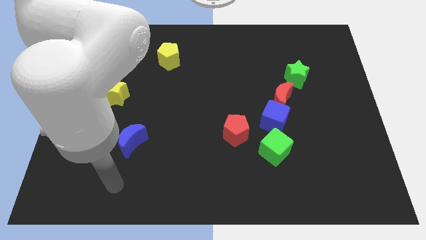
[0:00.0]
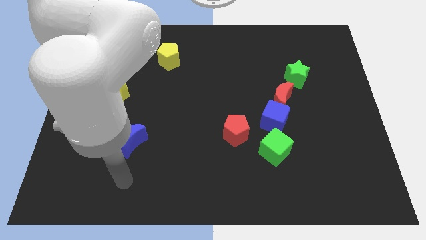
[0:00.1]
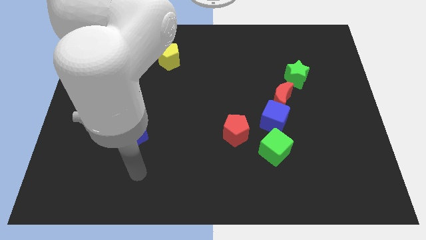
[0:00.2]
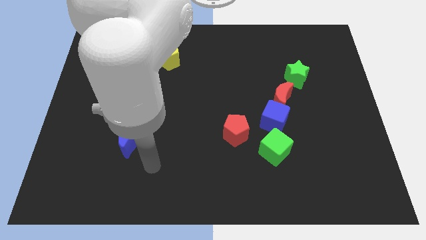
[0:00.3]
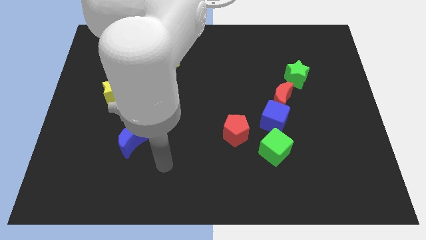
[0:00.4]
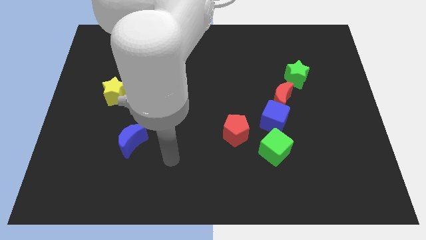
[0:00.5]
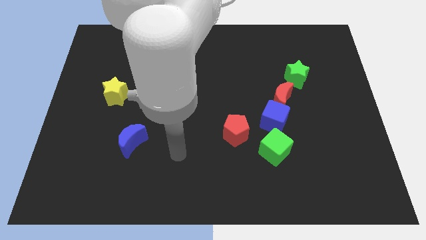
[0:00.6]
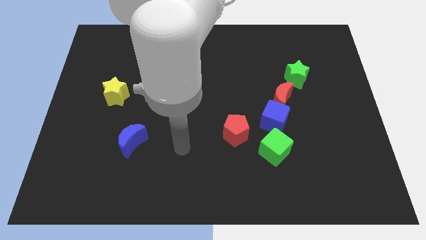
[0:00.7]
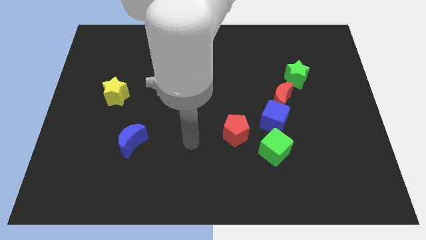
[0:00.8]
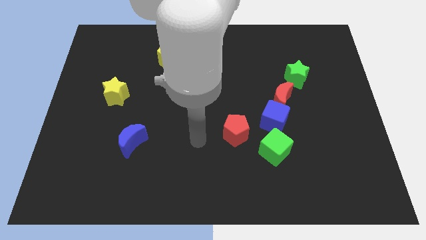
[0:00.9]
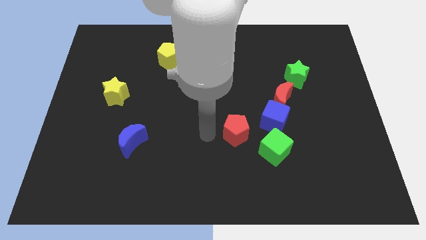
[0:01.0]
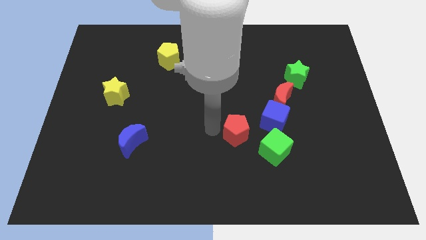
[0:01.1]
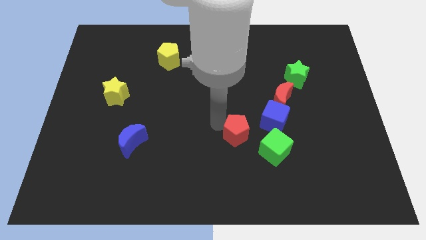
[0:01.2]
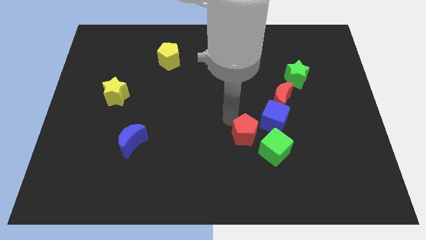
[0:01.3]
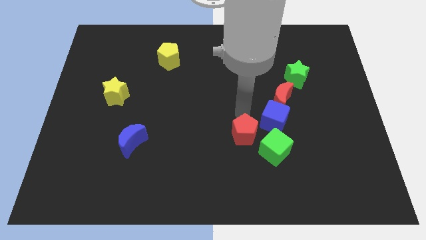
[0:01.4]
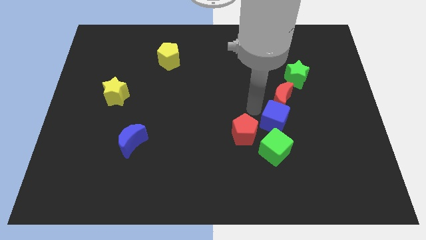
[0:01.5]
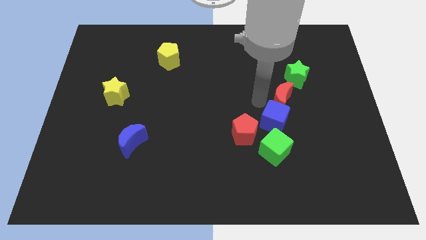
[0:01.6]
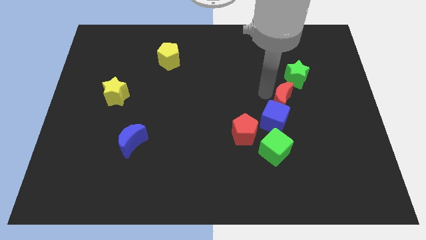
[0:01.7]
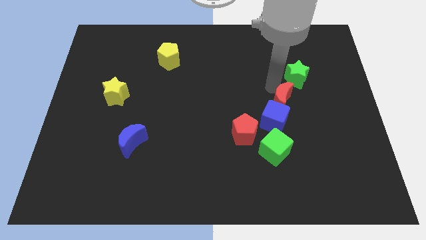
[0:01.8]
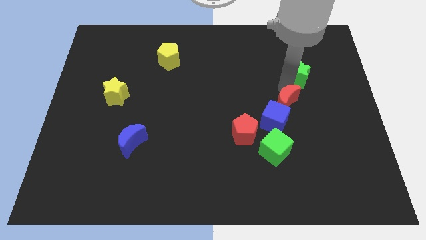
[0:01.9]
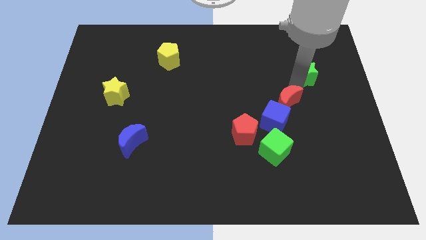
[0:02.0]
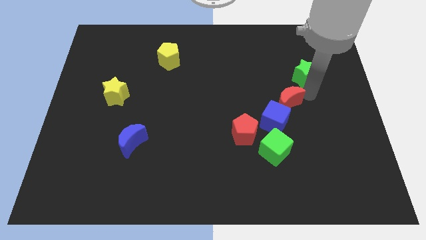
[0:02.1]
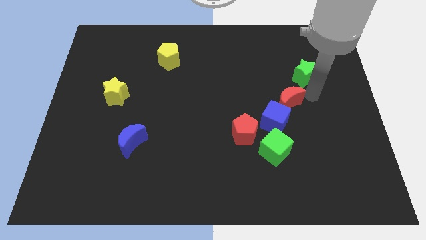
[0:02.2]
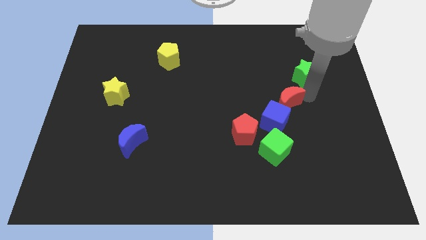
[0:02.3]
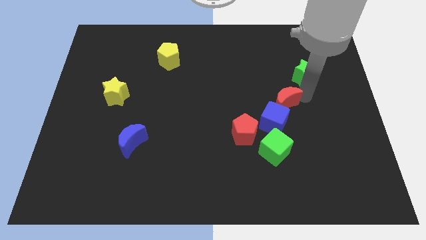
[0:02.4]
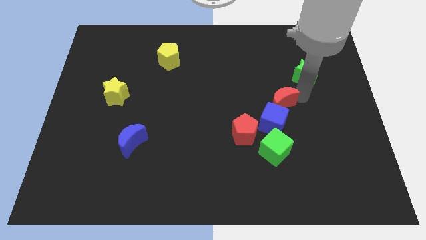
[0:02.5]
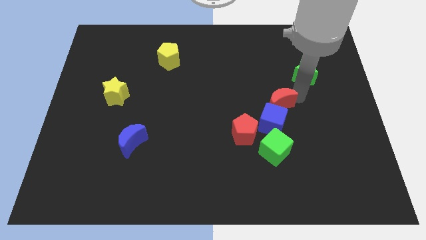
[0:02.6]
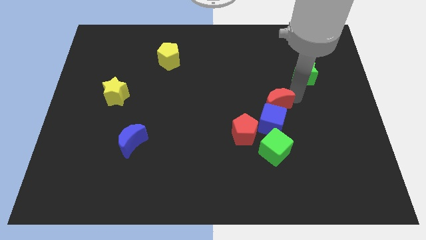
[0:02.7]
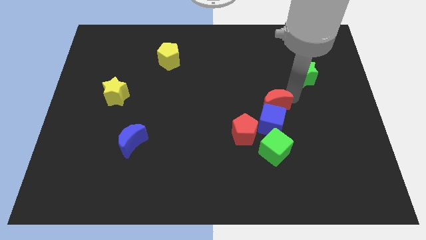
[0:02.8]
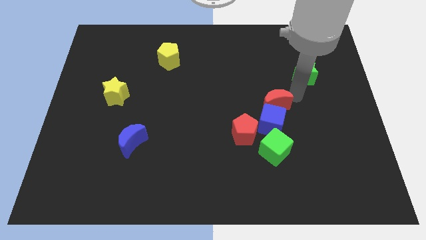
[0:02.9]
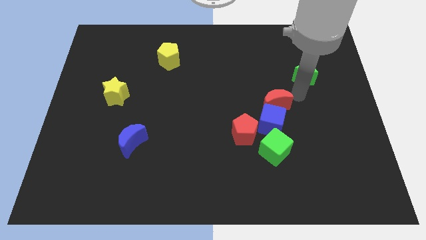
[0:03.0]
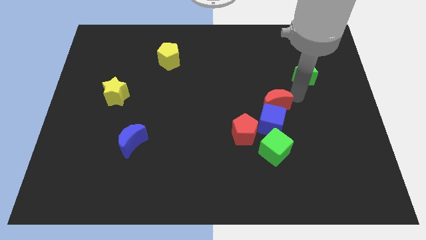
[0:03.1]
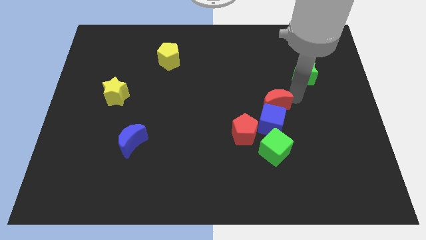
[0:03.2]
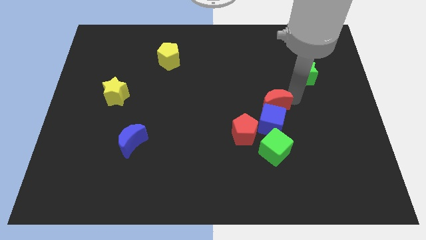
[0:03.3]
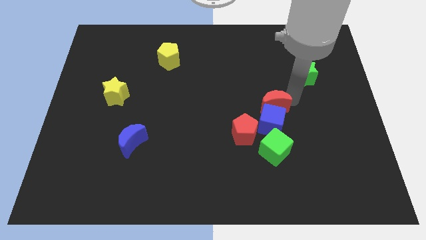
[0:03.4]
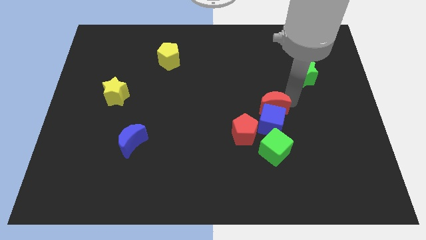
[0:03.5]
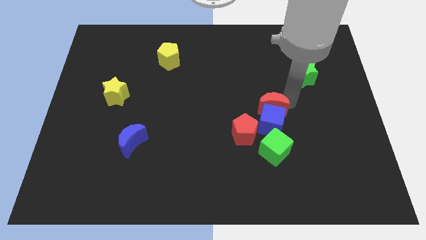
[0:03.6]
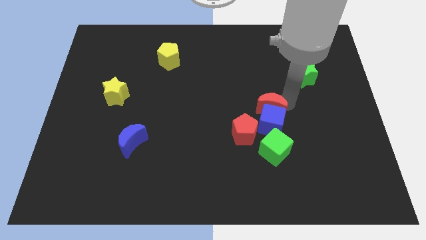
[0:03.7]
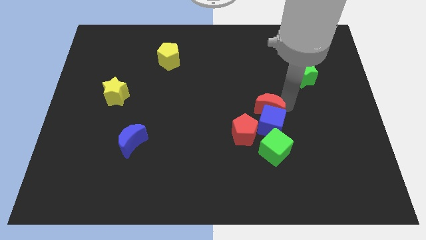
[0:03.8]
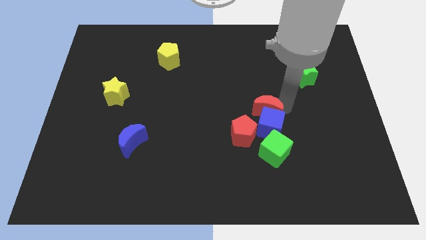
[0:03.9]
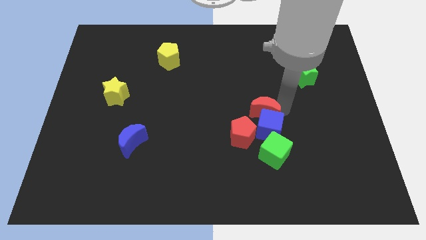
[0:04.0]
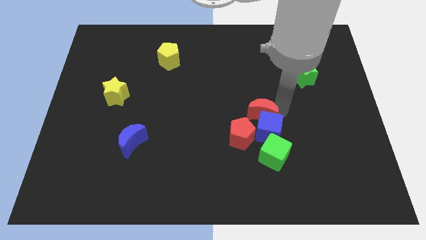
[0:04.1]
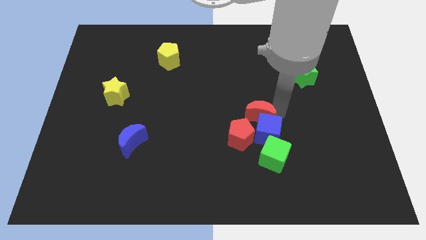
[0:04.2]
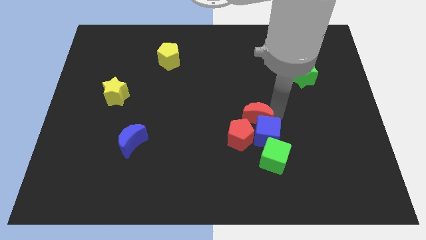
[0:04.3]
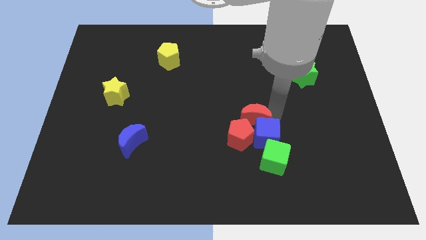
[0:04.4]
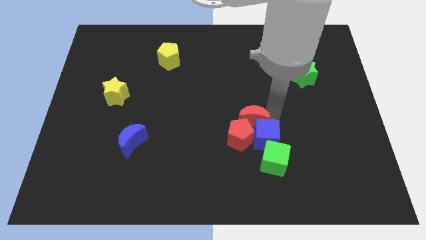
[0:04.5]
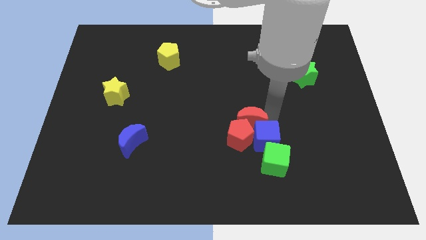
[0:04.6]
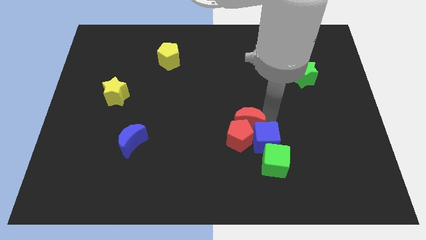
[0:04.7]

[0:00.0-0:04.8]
separate the red moon from the blue cube and green star

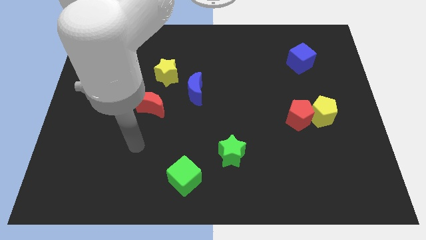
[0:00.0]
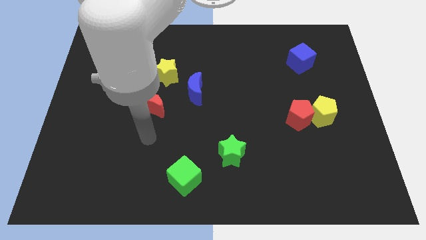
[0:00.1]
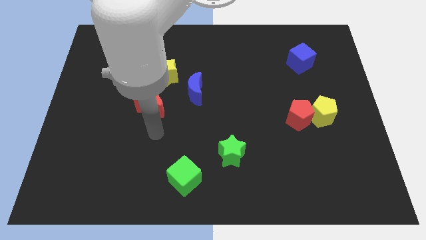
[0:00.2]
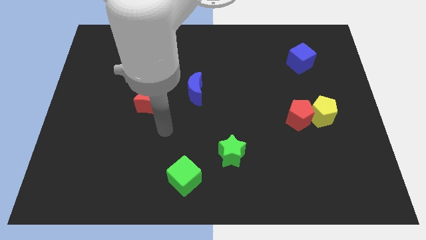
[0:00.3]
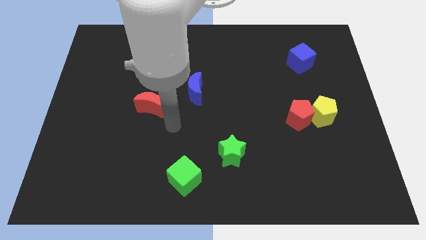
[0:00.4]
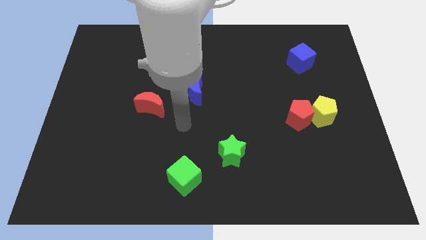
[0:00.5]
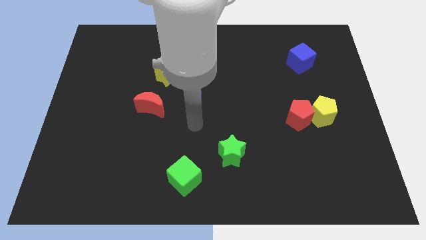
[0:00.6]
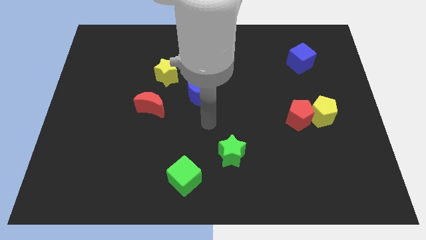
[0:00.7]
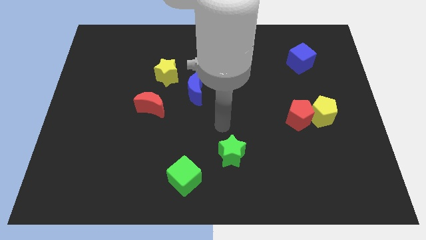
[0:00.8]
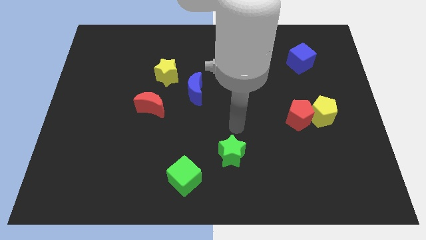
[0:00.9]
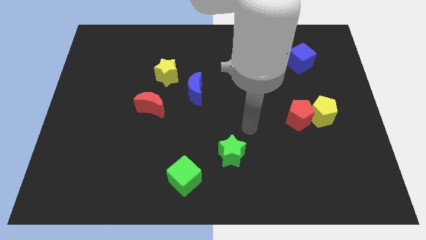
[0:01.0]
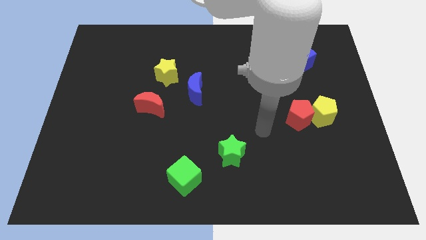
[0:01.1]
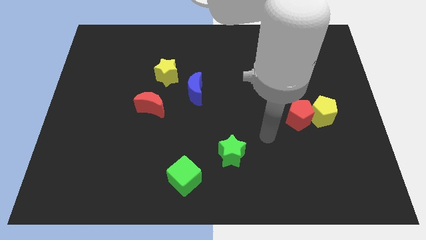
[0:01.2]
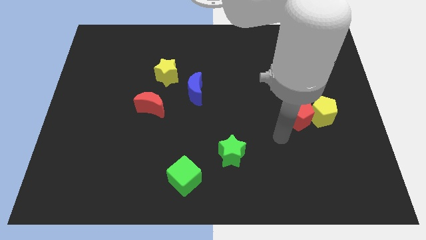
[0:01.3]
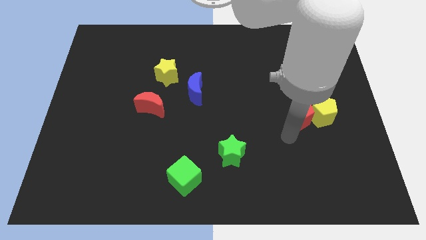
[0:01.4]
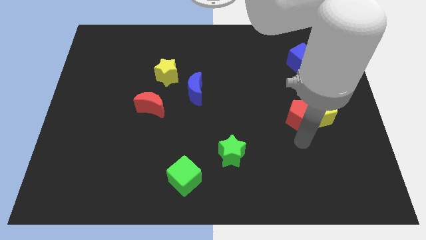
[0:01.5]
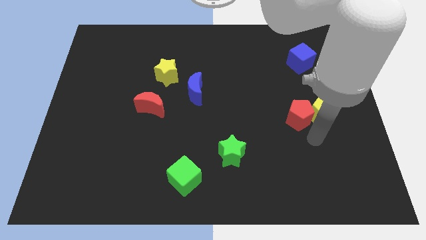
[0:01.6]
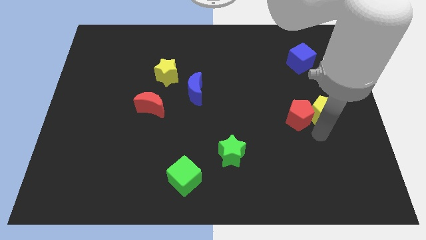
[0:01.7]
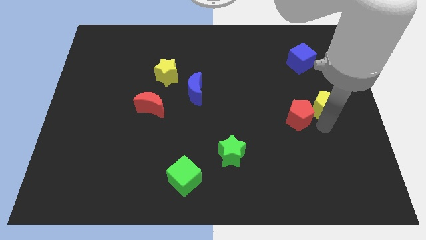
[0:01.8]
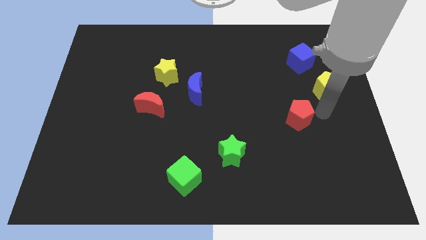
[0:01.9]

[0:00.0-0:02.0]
move the red pentagon away from the yellow pentagon

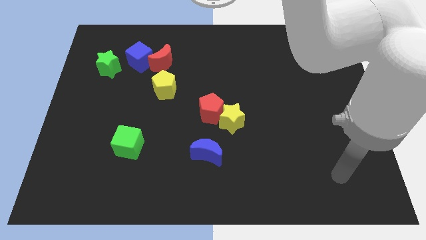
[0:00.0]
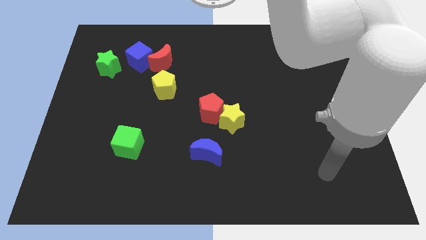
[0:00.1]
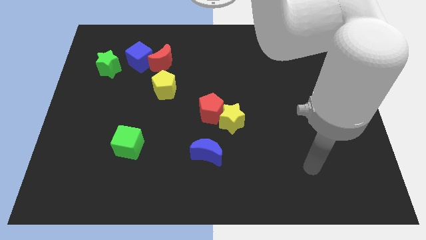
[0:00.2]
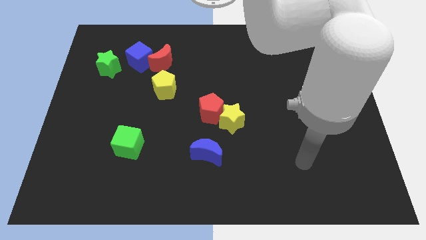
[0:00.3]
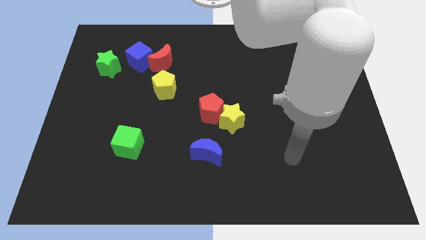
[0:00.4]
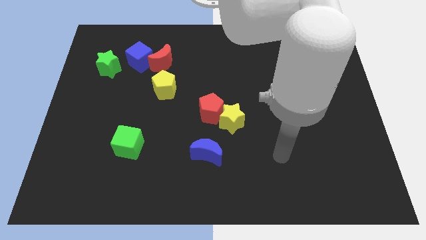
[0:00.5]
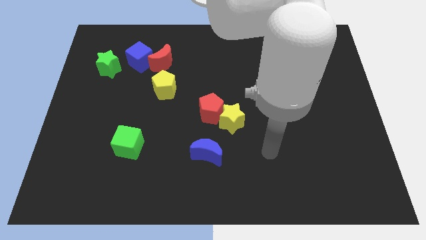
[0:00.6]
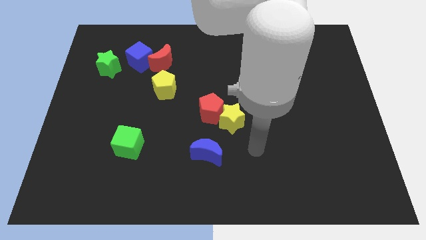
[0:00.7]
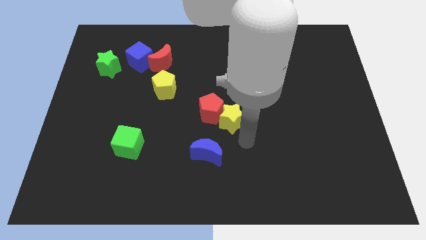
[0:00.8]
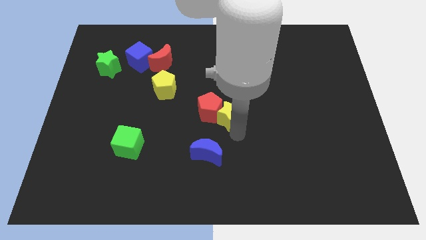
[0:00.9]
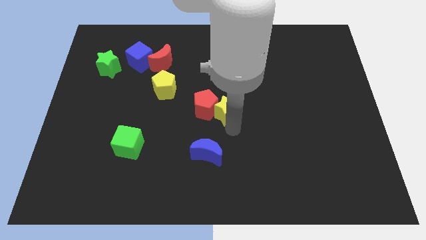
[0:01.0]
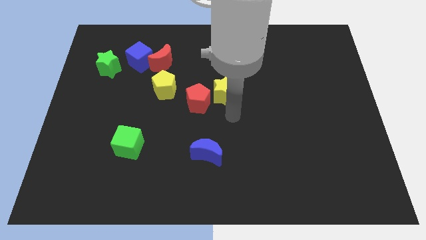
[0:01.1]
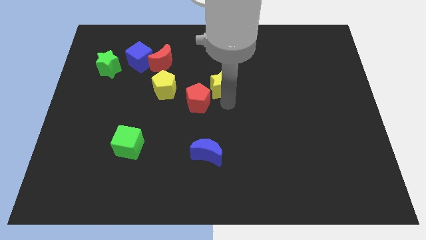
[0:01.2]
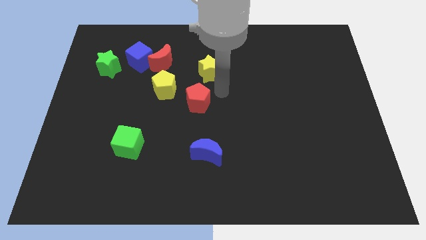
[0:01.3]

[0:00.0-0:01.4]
separate the red pentagon from the yellow star

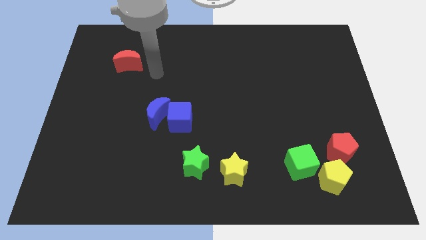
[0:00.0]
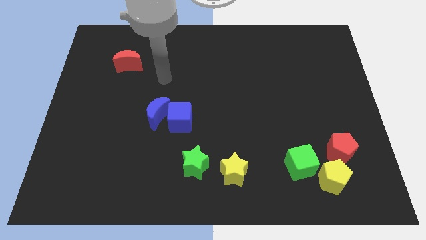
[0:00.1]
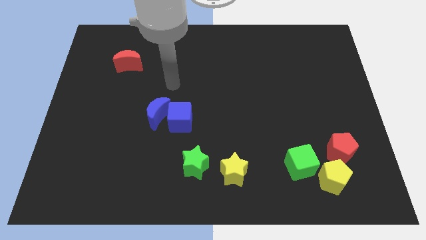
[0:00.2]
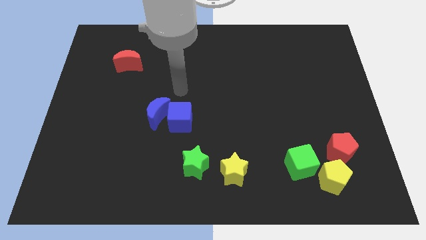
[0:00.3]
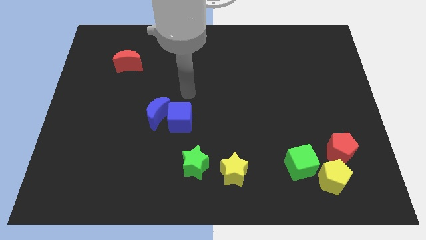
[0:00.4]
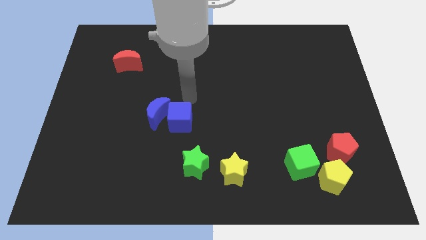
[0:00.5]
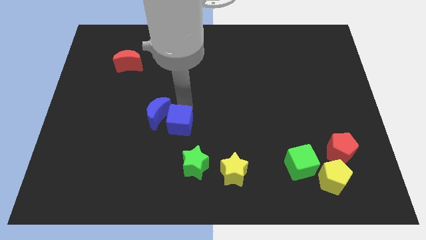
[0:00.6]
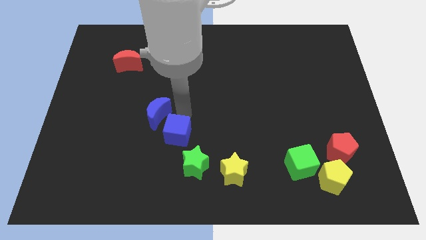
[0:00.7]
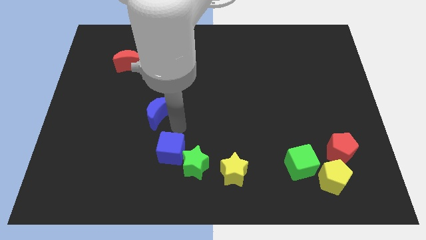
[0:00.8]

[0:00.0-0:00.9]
separate the blue moon from the blue cube

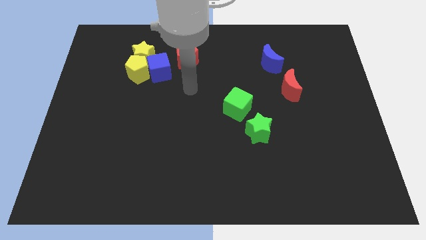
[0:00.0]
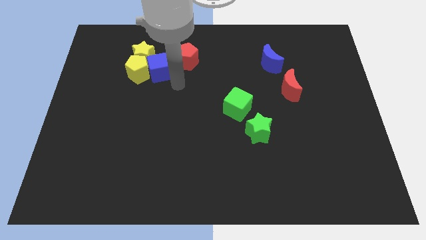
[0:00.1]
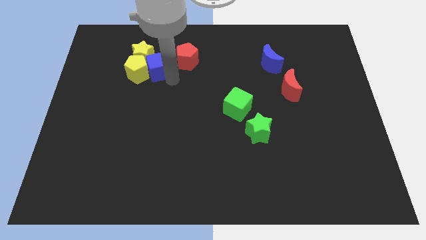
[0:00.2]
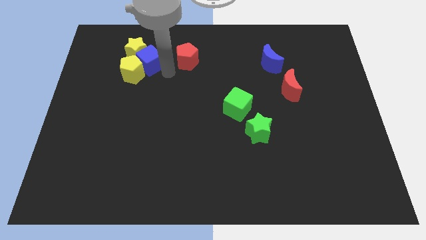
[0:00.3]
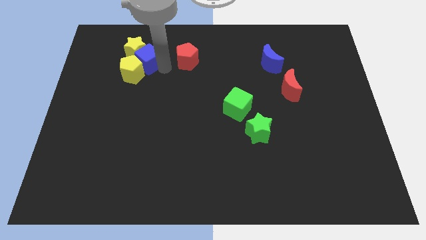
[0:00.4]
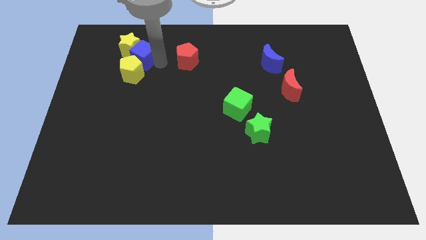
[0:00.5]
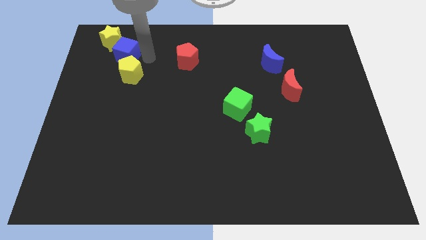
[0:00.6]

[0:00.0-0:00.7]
separate the yellow pentagon from the blue cube and yellow star
